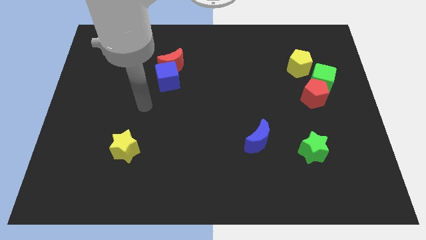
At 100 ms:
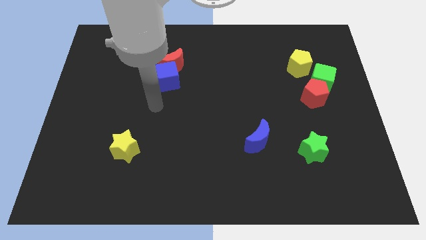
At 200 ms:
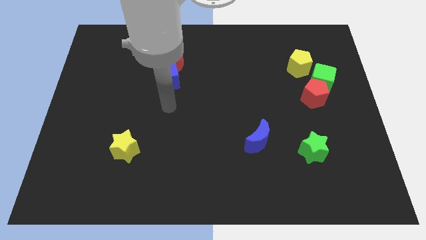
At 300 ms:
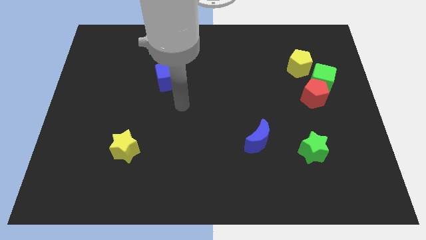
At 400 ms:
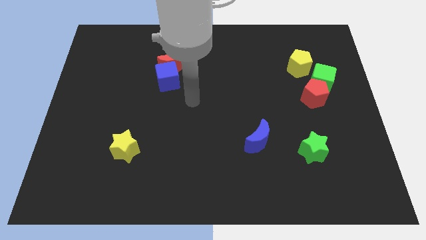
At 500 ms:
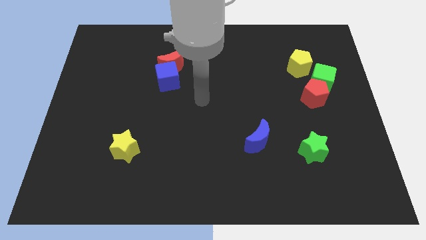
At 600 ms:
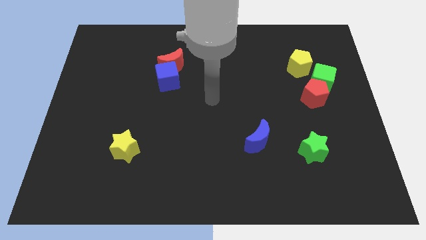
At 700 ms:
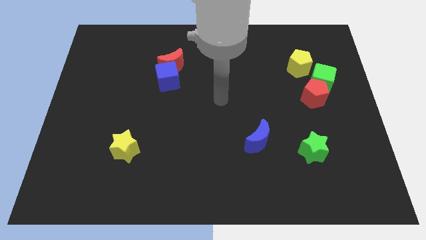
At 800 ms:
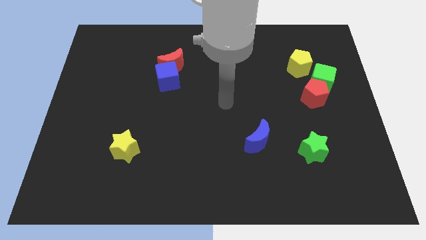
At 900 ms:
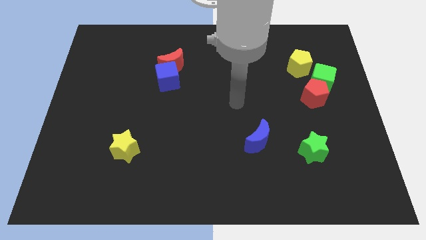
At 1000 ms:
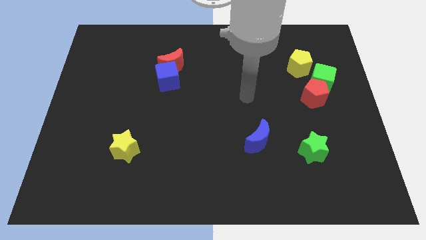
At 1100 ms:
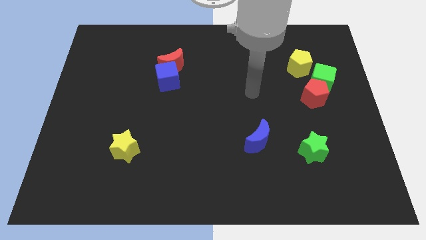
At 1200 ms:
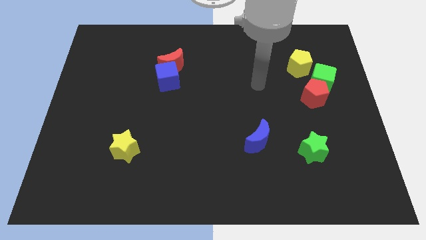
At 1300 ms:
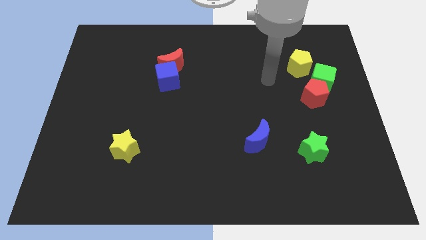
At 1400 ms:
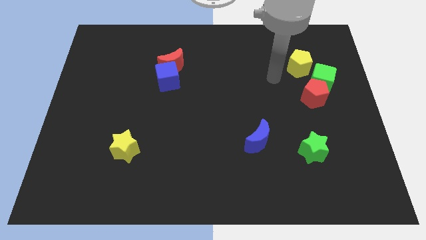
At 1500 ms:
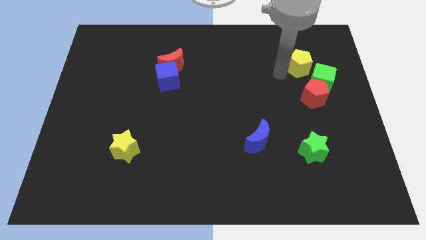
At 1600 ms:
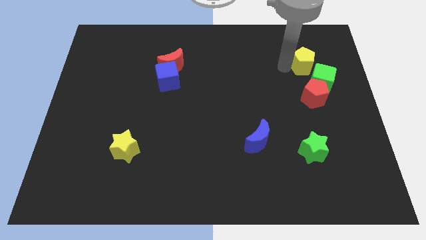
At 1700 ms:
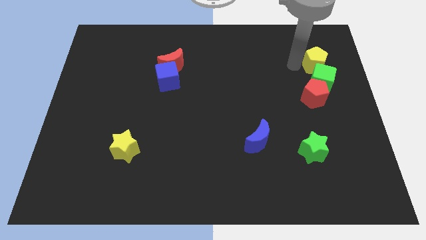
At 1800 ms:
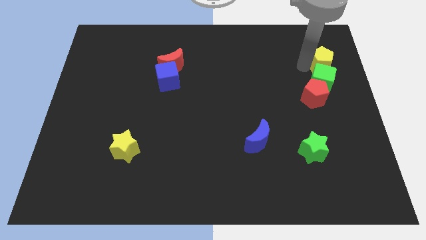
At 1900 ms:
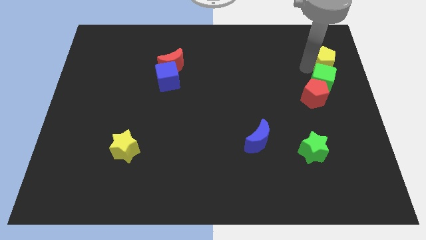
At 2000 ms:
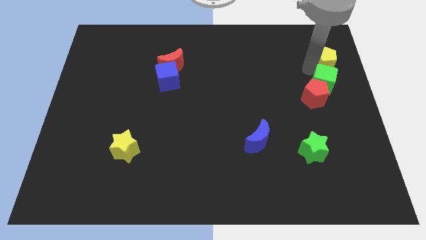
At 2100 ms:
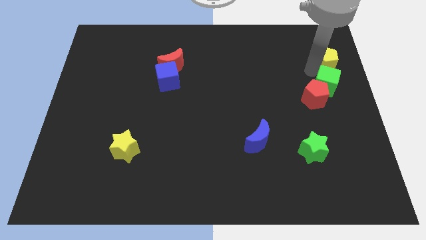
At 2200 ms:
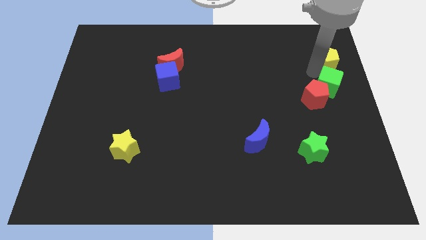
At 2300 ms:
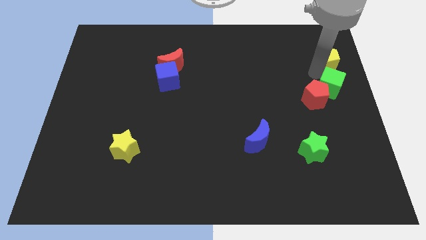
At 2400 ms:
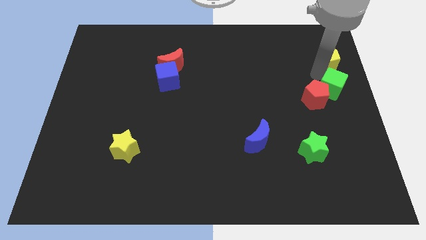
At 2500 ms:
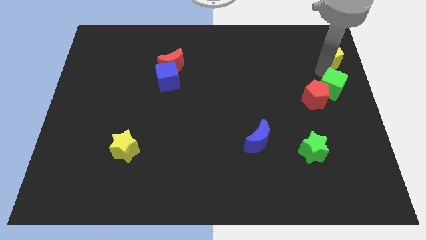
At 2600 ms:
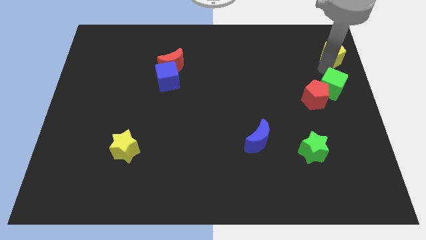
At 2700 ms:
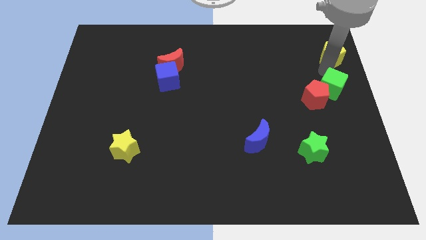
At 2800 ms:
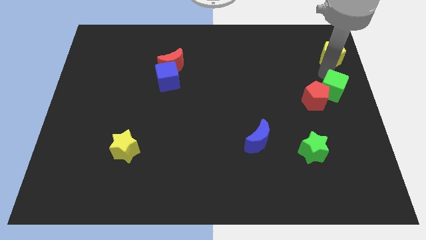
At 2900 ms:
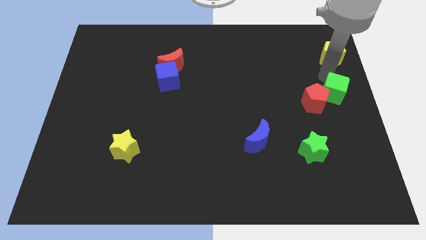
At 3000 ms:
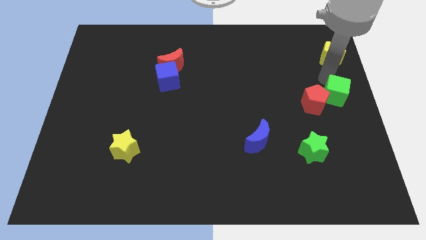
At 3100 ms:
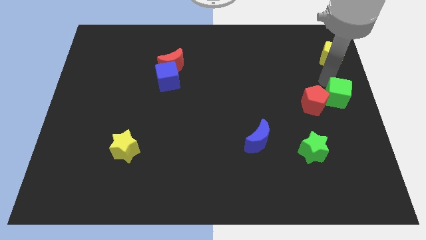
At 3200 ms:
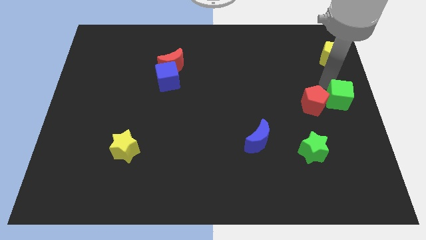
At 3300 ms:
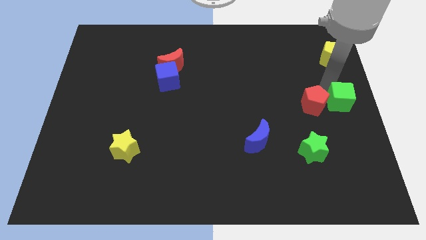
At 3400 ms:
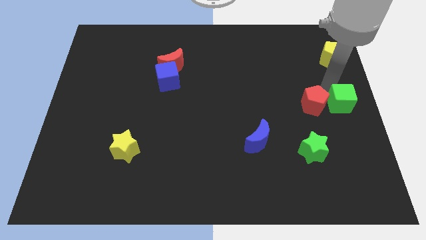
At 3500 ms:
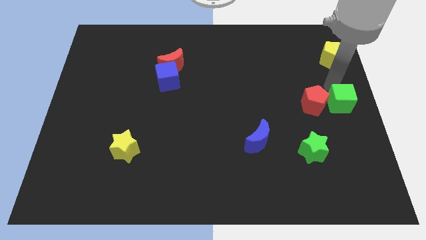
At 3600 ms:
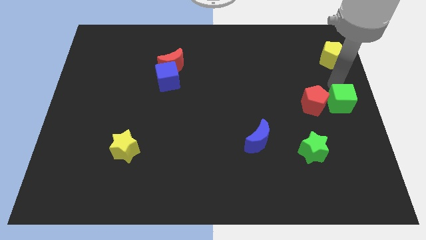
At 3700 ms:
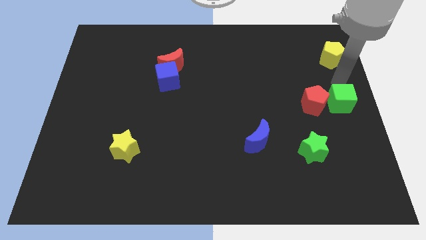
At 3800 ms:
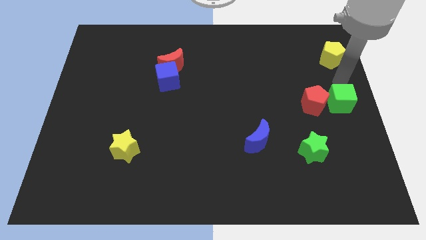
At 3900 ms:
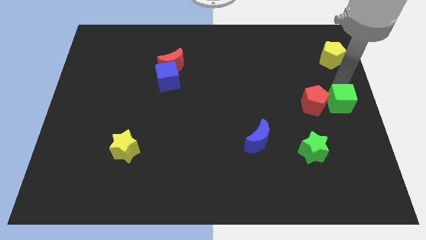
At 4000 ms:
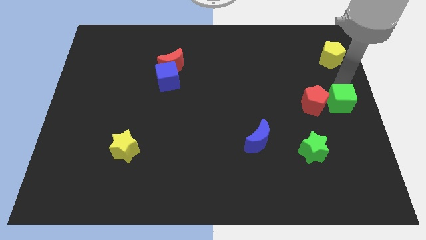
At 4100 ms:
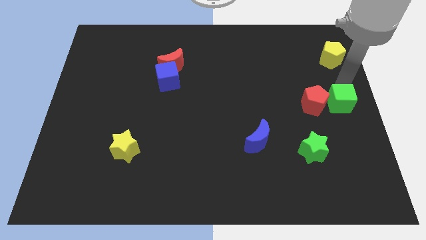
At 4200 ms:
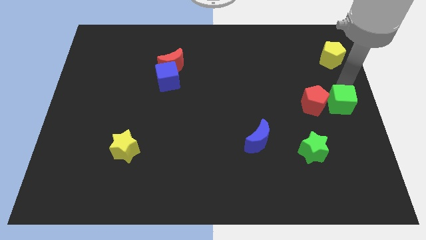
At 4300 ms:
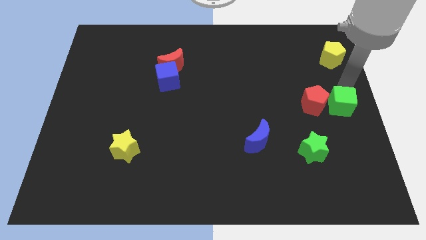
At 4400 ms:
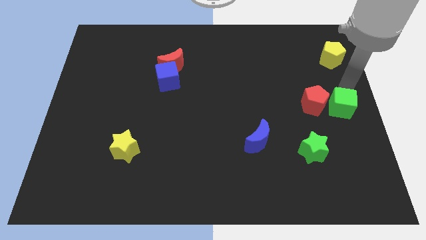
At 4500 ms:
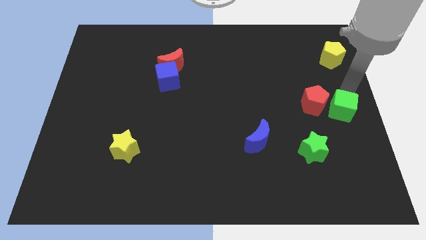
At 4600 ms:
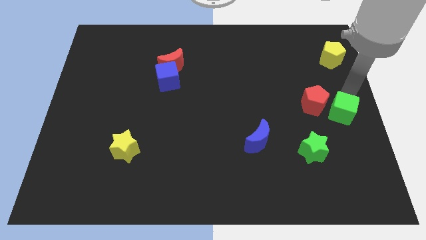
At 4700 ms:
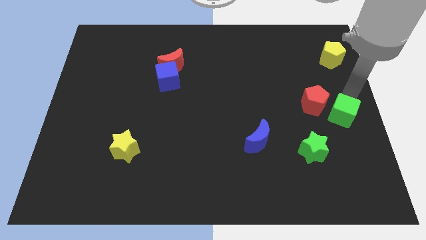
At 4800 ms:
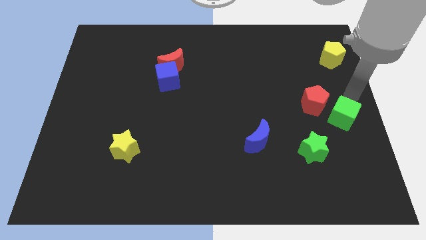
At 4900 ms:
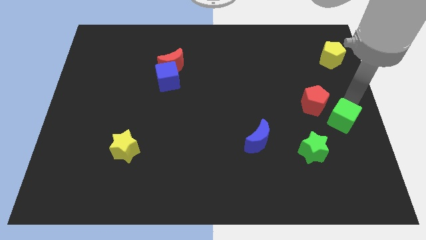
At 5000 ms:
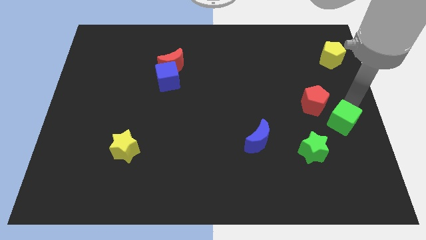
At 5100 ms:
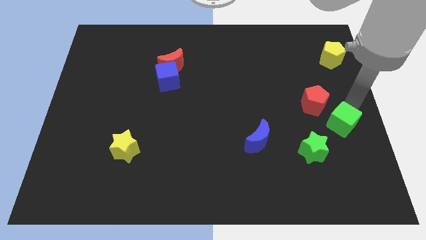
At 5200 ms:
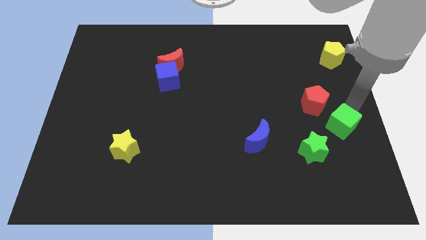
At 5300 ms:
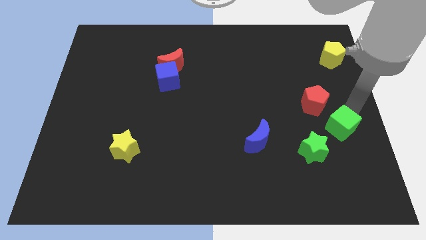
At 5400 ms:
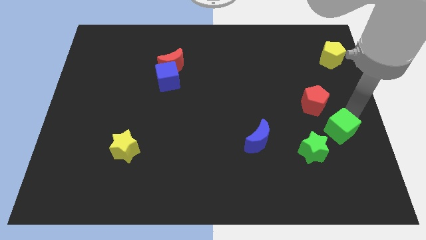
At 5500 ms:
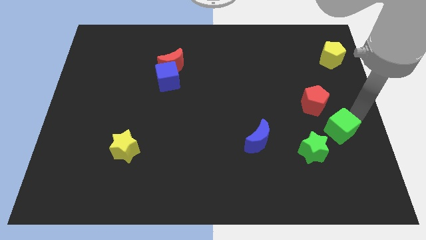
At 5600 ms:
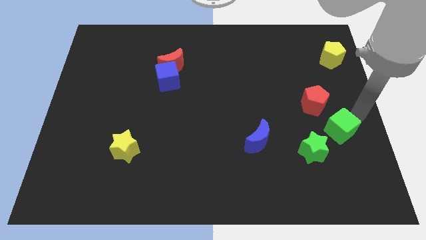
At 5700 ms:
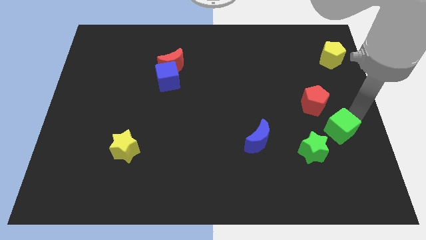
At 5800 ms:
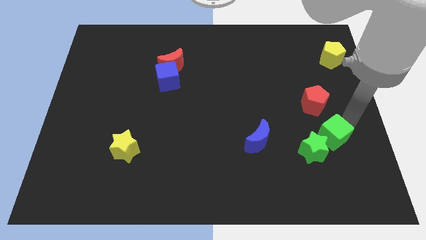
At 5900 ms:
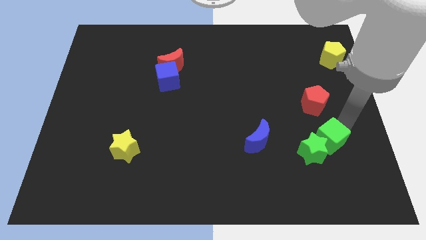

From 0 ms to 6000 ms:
put the green cube next to the green star

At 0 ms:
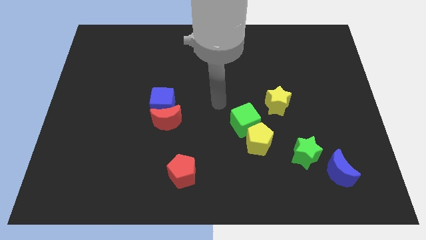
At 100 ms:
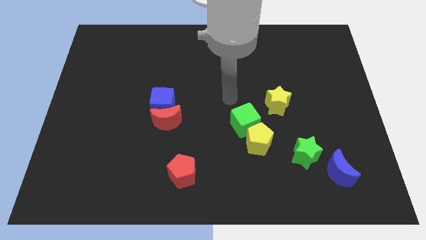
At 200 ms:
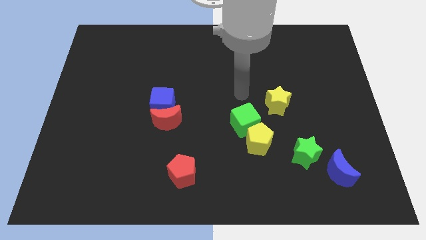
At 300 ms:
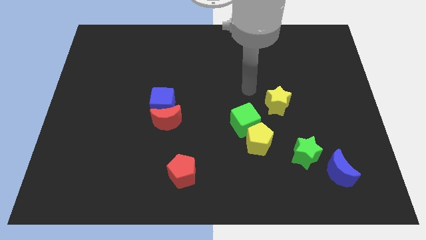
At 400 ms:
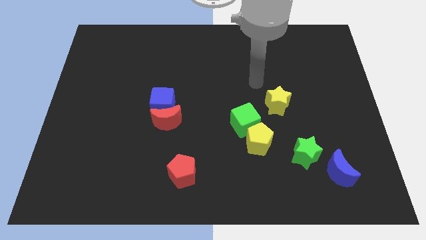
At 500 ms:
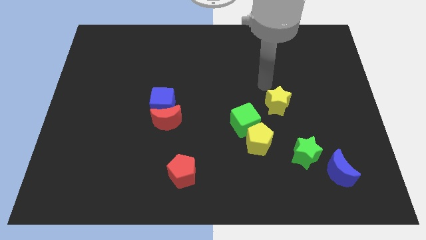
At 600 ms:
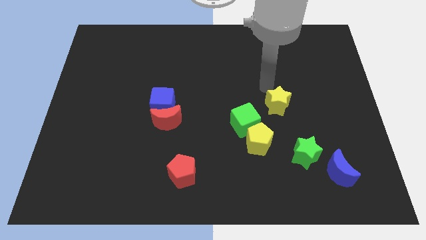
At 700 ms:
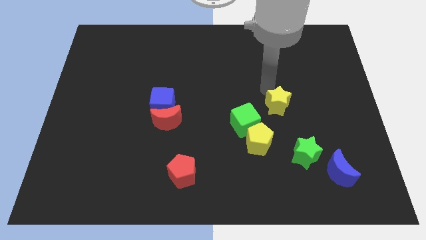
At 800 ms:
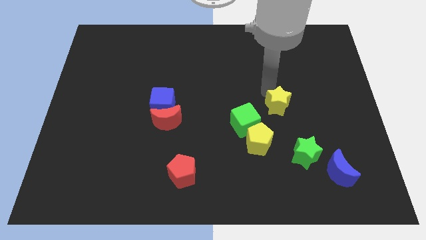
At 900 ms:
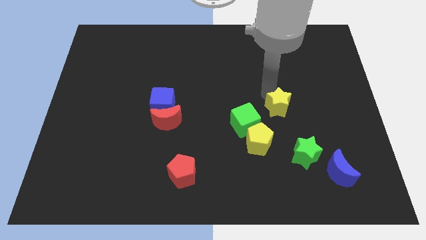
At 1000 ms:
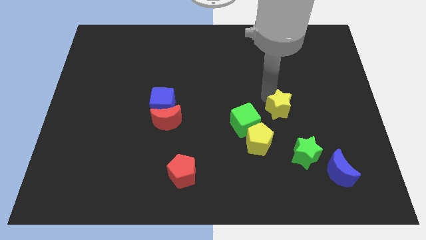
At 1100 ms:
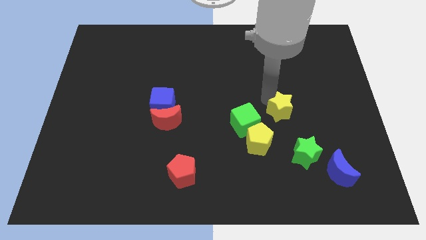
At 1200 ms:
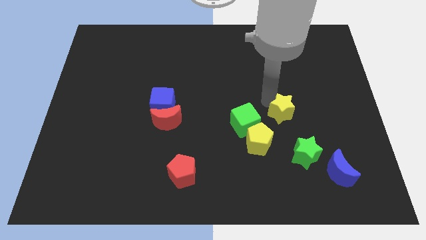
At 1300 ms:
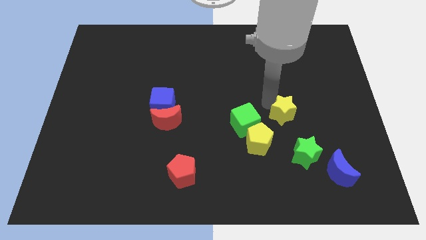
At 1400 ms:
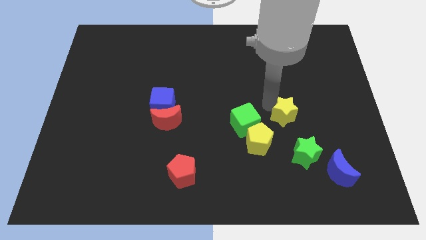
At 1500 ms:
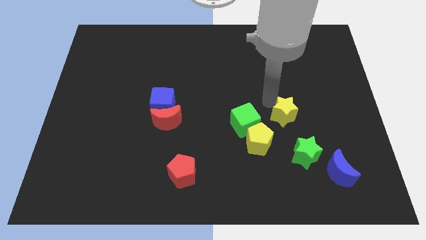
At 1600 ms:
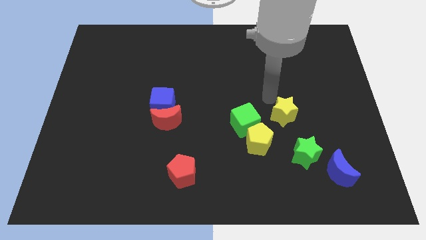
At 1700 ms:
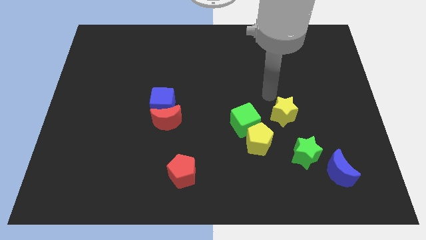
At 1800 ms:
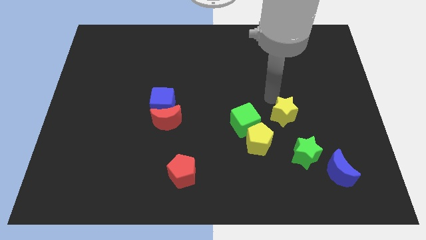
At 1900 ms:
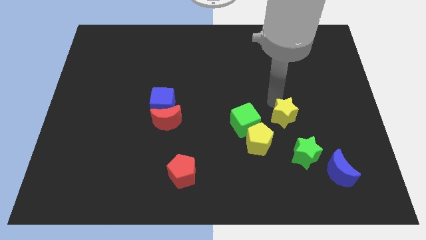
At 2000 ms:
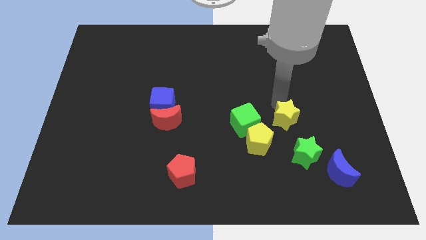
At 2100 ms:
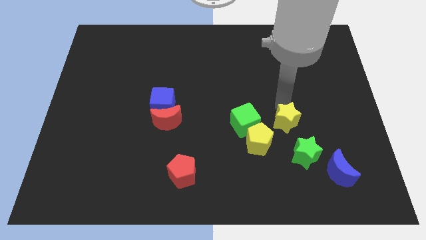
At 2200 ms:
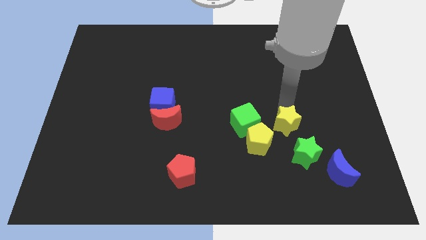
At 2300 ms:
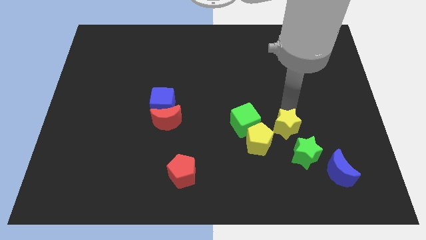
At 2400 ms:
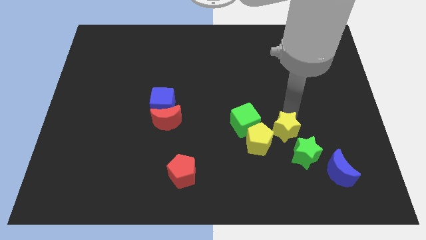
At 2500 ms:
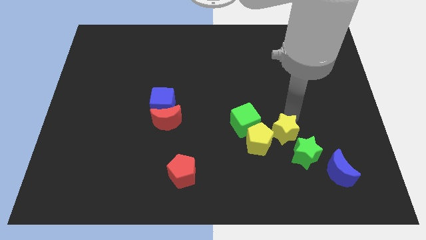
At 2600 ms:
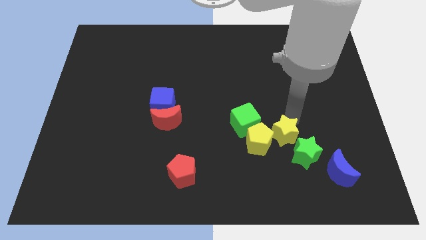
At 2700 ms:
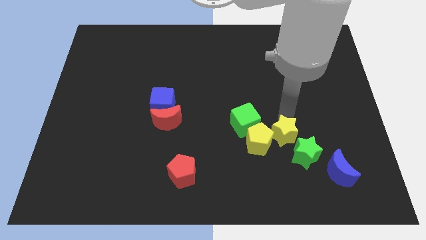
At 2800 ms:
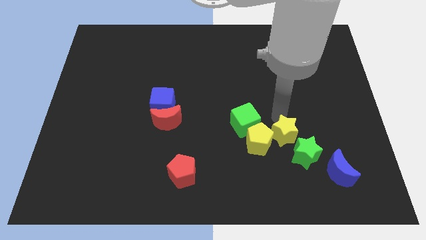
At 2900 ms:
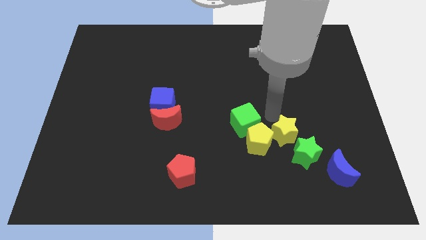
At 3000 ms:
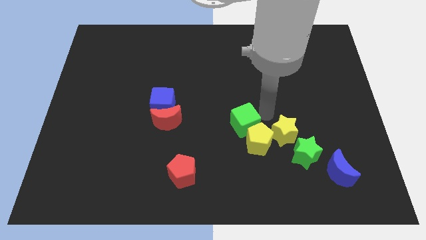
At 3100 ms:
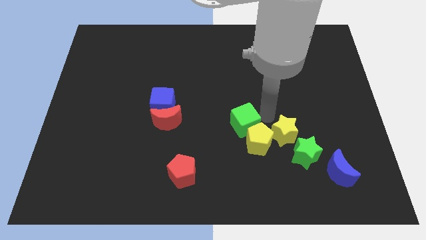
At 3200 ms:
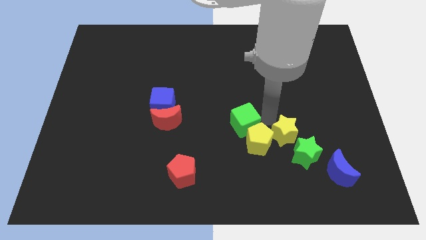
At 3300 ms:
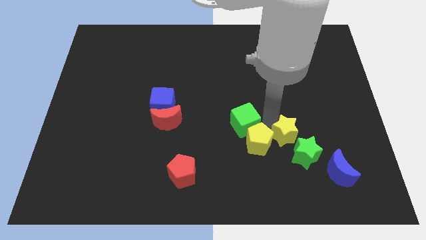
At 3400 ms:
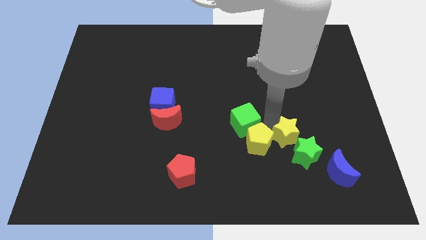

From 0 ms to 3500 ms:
move the yellow star to the green star
